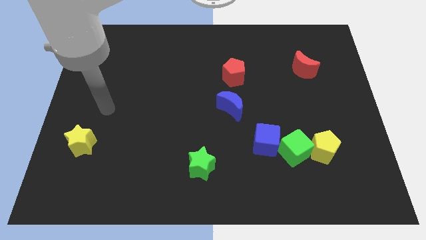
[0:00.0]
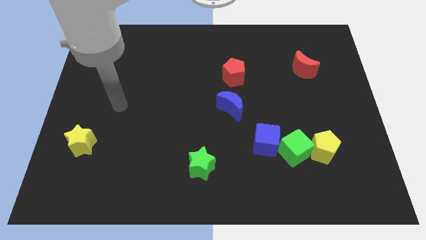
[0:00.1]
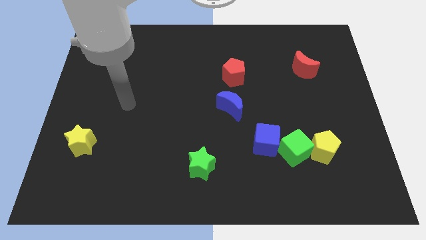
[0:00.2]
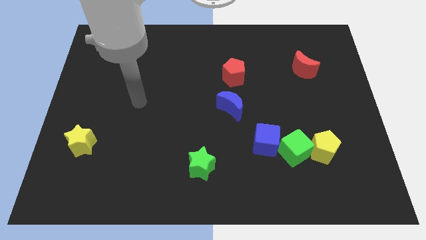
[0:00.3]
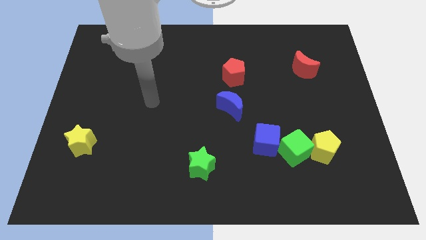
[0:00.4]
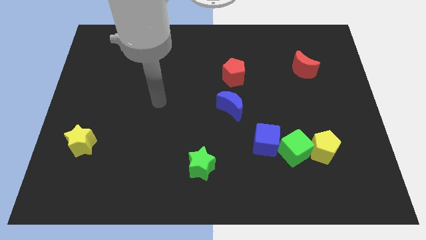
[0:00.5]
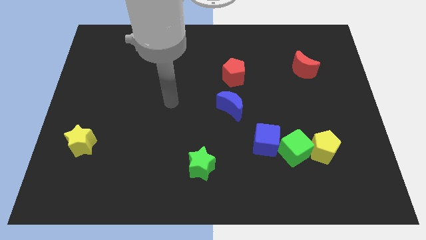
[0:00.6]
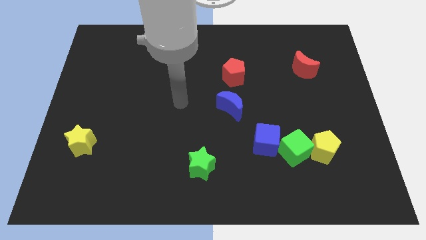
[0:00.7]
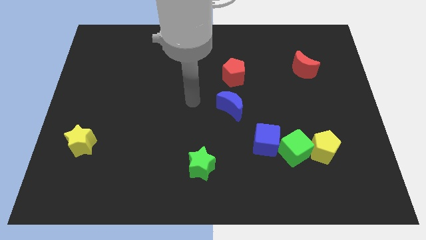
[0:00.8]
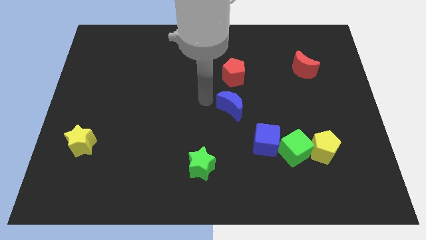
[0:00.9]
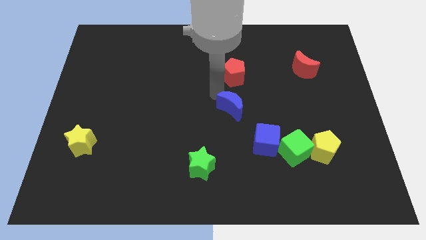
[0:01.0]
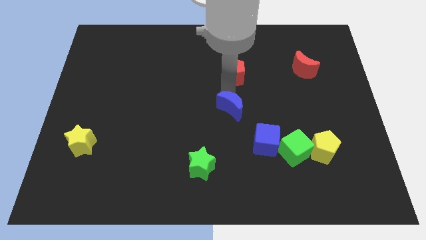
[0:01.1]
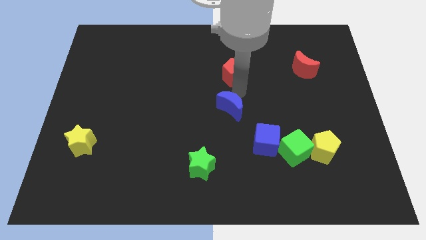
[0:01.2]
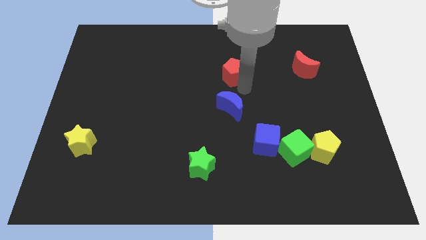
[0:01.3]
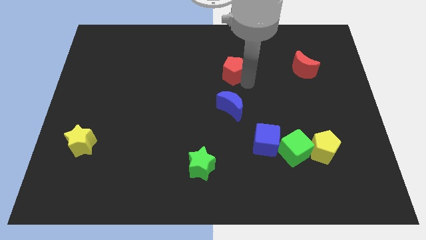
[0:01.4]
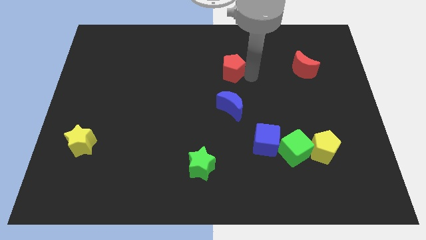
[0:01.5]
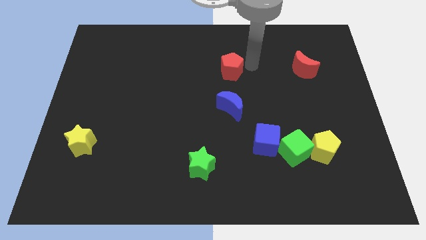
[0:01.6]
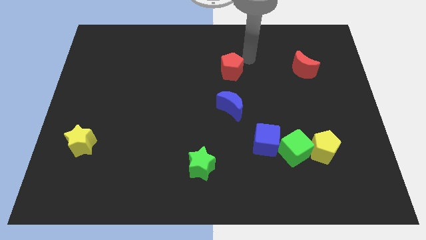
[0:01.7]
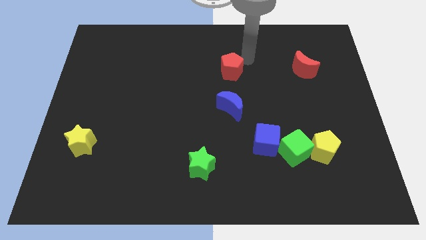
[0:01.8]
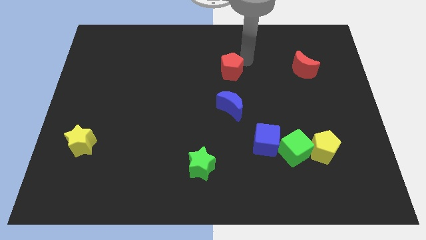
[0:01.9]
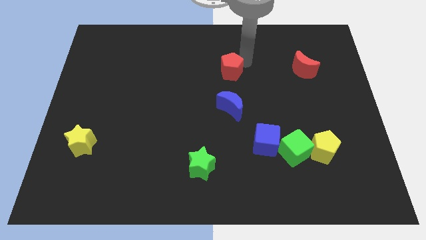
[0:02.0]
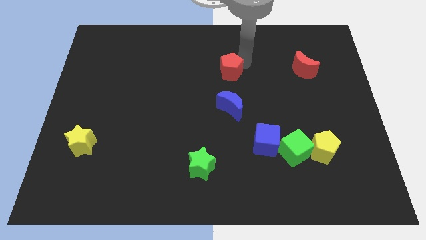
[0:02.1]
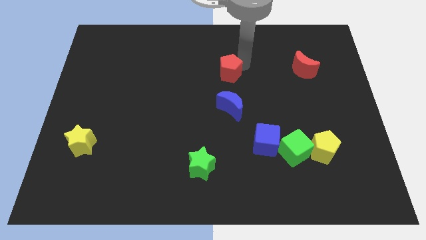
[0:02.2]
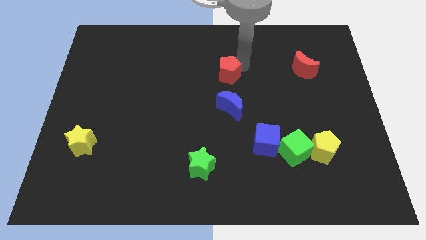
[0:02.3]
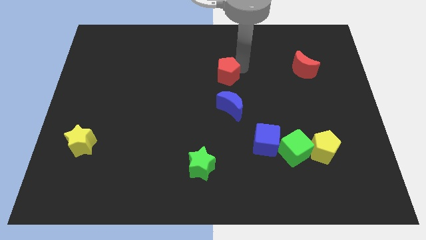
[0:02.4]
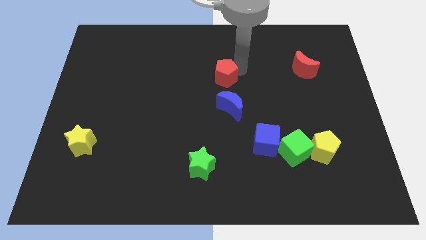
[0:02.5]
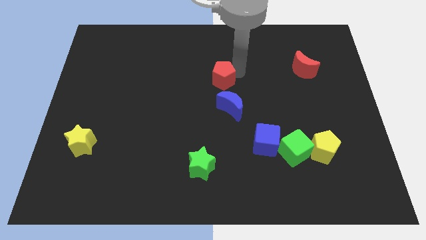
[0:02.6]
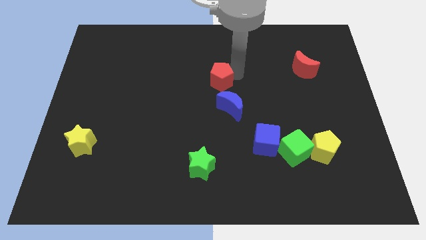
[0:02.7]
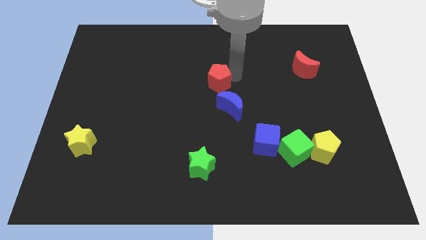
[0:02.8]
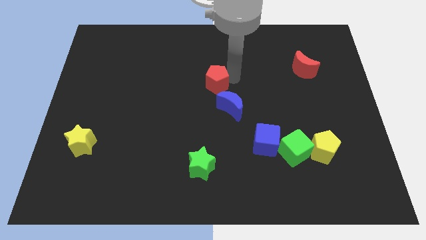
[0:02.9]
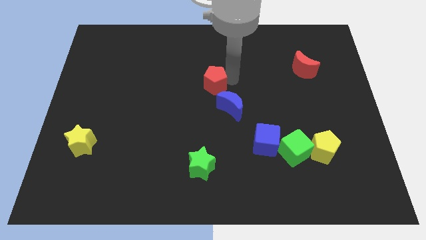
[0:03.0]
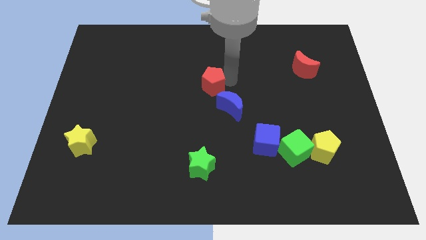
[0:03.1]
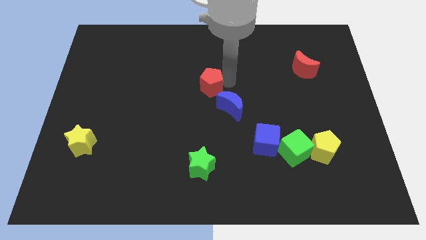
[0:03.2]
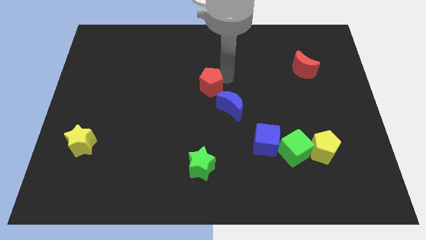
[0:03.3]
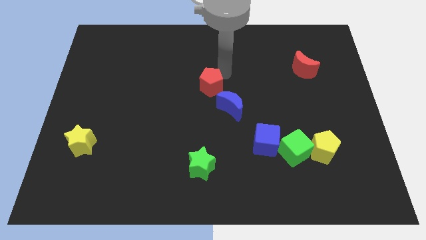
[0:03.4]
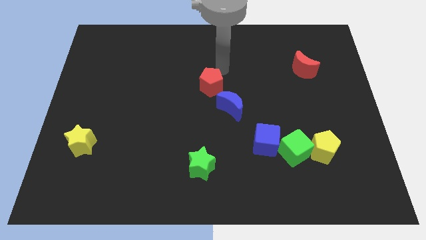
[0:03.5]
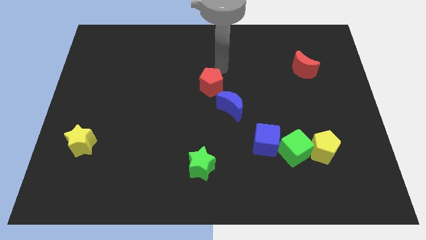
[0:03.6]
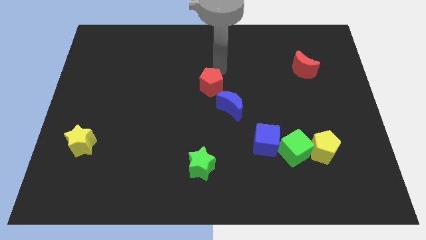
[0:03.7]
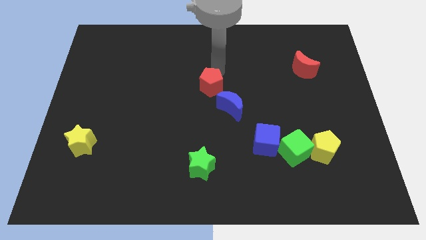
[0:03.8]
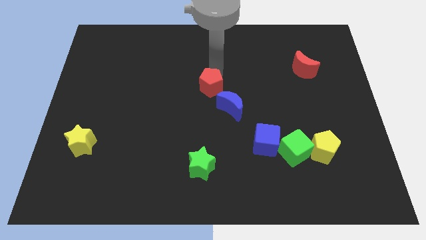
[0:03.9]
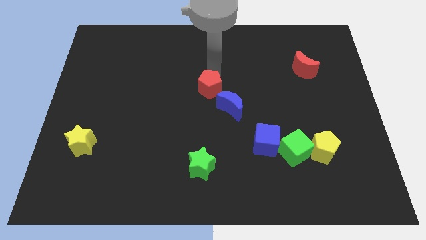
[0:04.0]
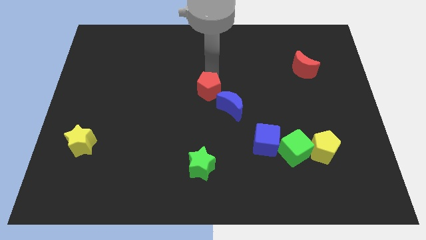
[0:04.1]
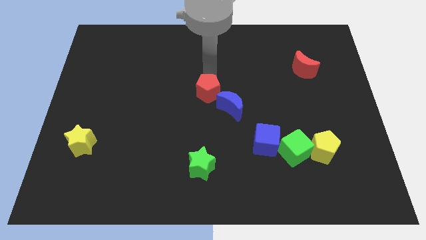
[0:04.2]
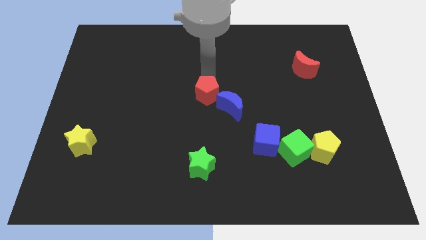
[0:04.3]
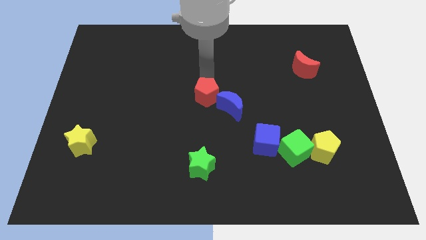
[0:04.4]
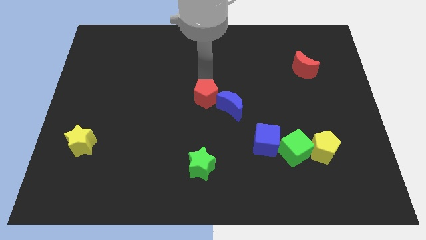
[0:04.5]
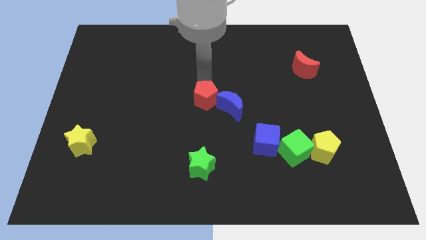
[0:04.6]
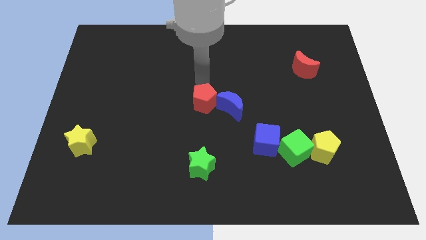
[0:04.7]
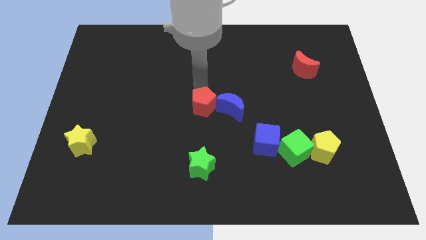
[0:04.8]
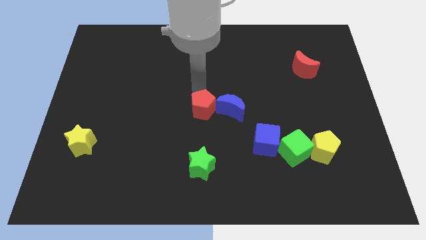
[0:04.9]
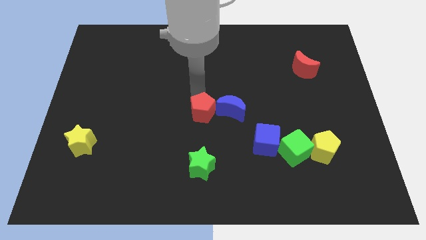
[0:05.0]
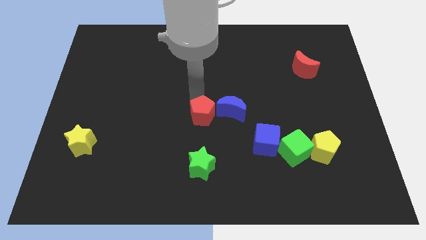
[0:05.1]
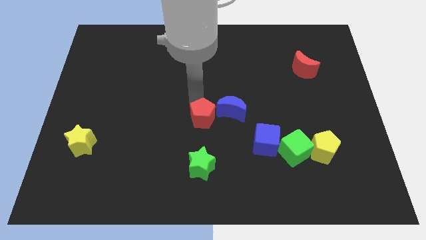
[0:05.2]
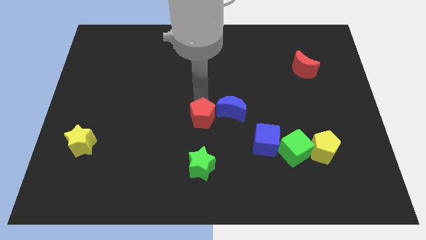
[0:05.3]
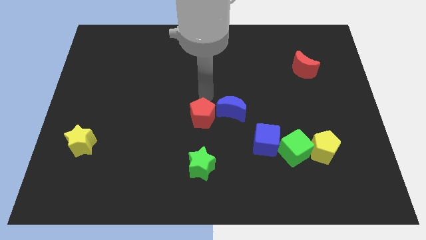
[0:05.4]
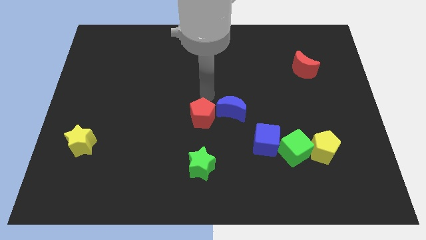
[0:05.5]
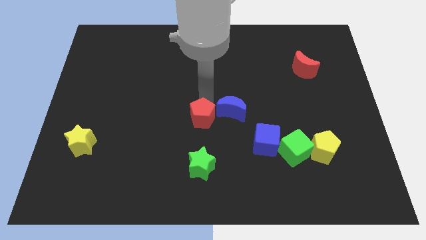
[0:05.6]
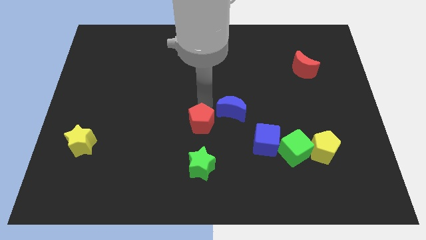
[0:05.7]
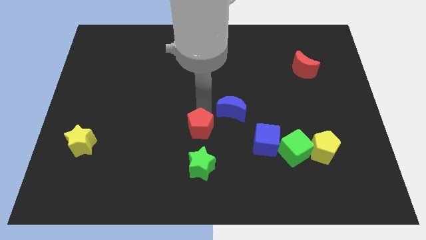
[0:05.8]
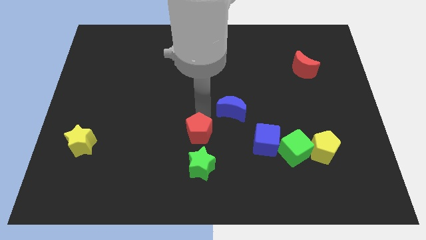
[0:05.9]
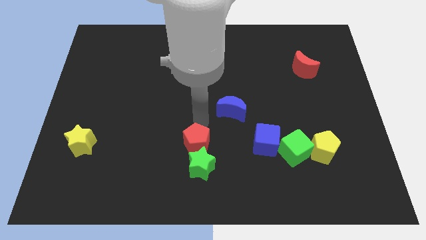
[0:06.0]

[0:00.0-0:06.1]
push the red pentagon to the green star

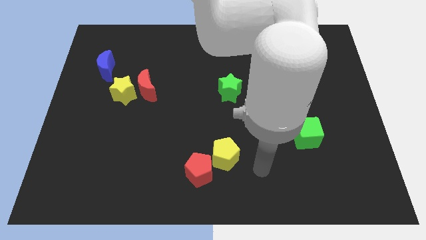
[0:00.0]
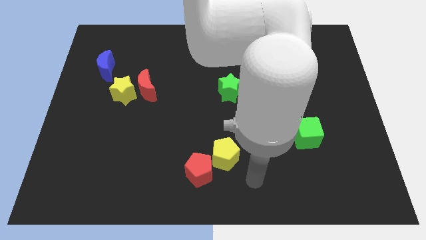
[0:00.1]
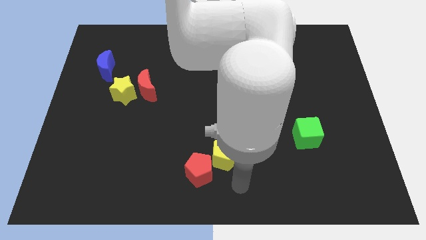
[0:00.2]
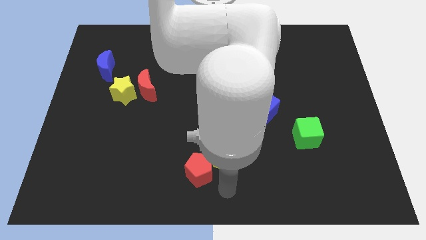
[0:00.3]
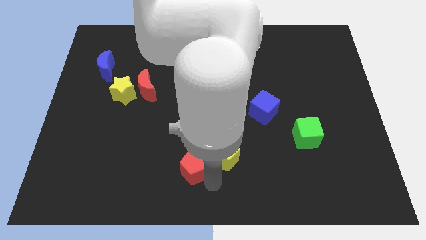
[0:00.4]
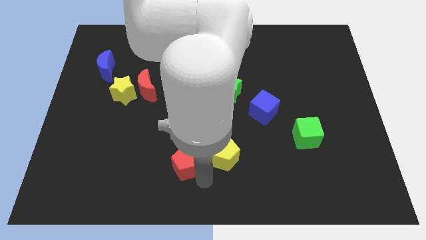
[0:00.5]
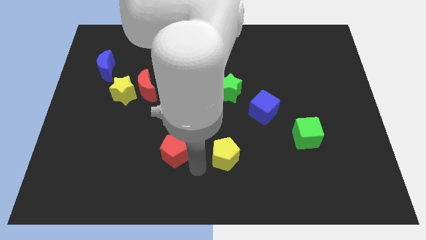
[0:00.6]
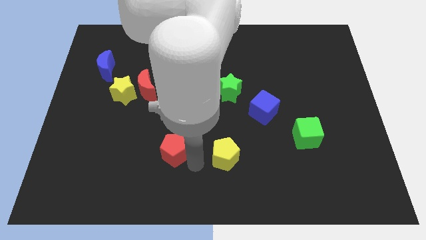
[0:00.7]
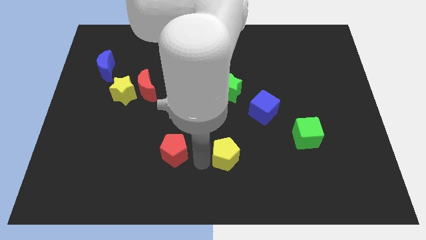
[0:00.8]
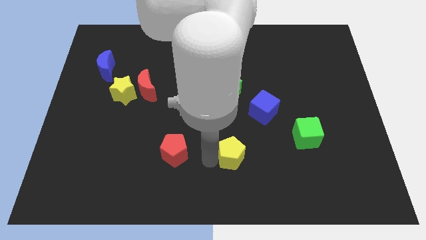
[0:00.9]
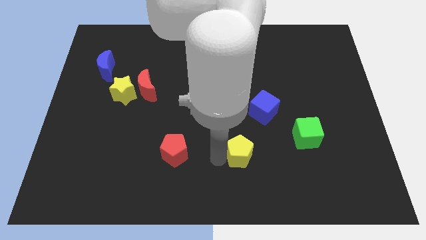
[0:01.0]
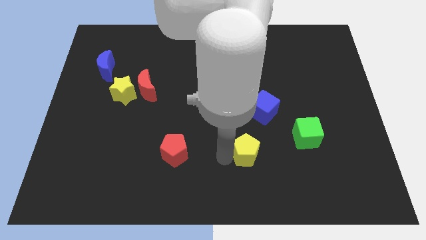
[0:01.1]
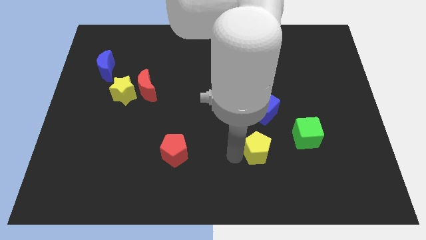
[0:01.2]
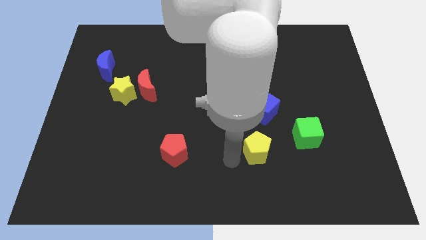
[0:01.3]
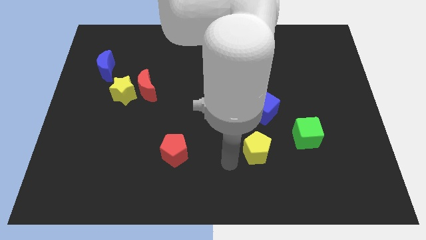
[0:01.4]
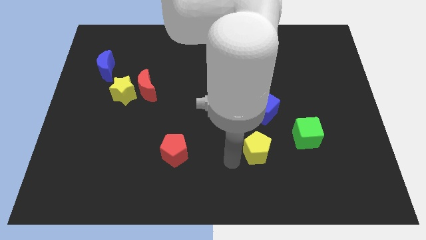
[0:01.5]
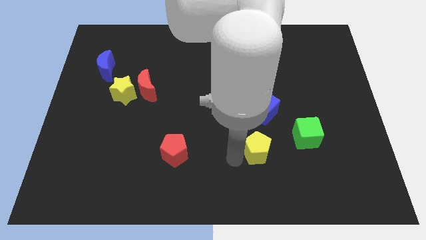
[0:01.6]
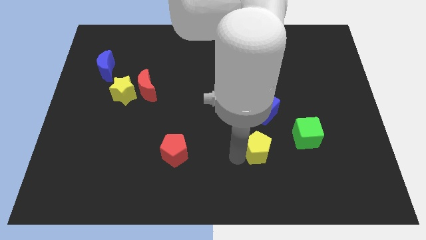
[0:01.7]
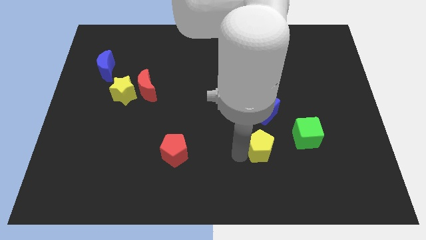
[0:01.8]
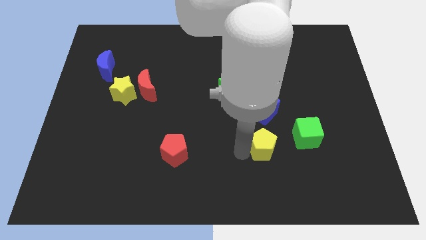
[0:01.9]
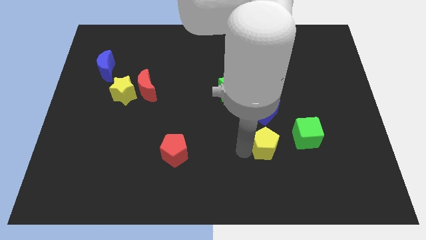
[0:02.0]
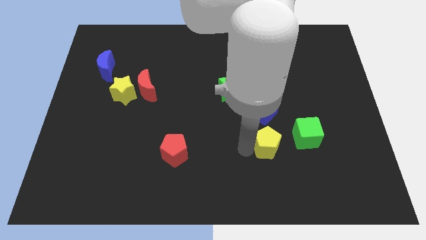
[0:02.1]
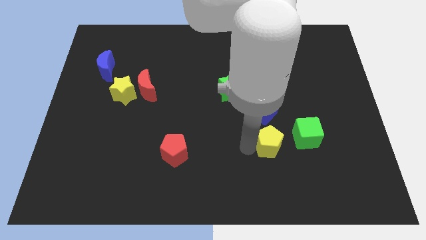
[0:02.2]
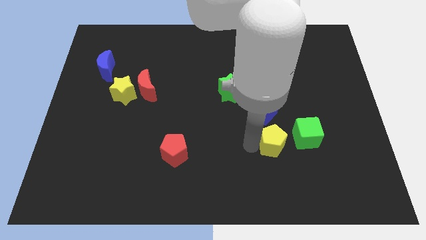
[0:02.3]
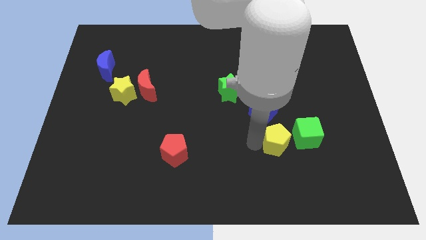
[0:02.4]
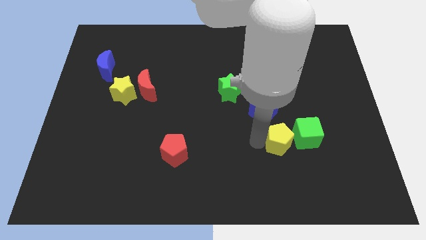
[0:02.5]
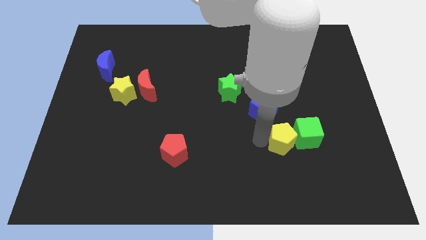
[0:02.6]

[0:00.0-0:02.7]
slide the yellow pentagon next to the green cube
